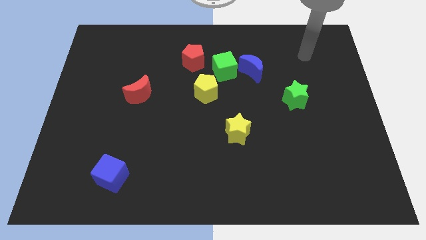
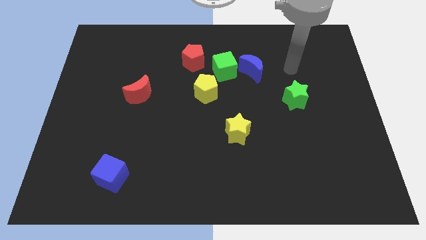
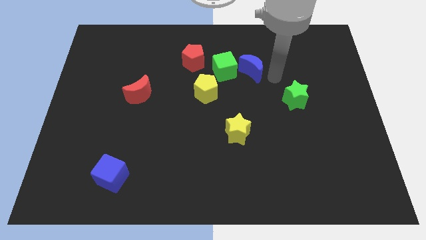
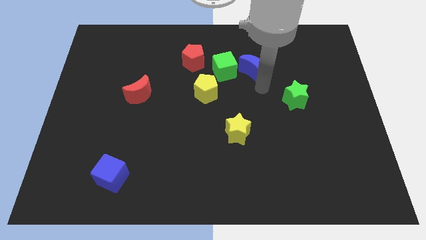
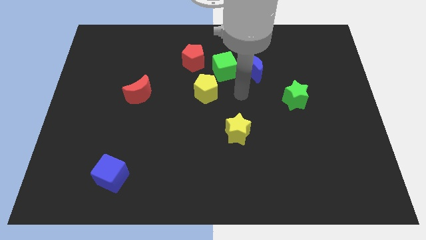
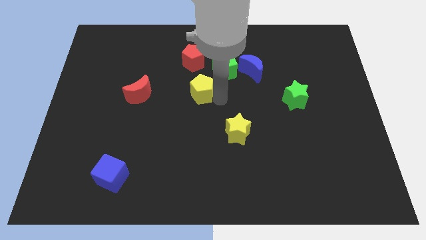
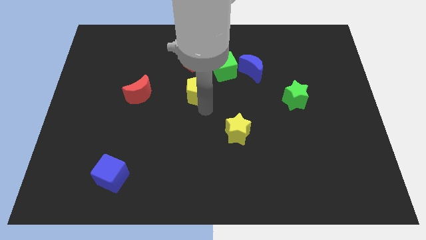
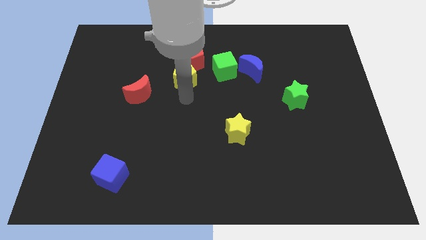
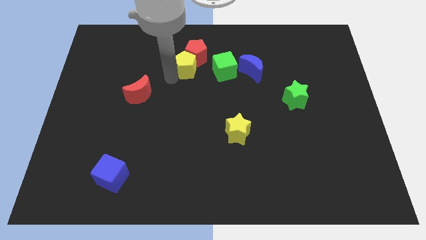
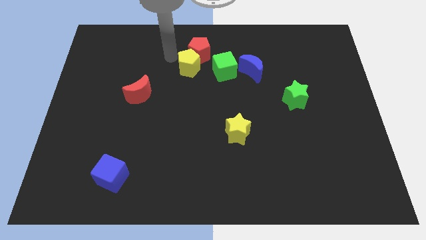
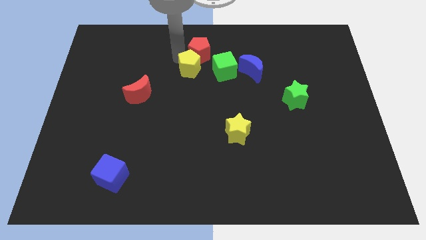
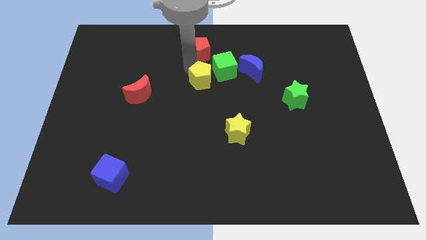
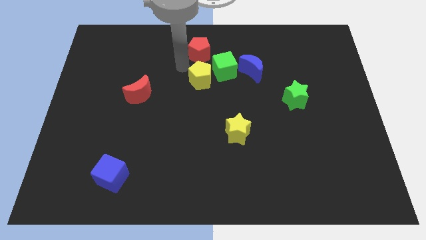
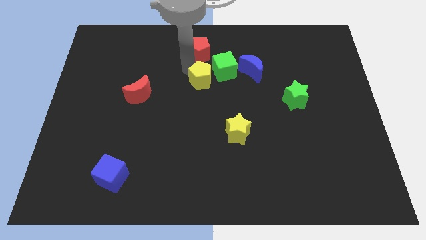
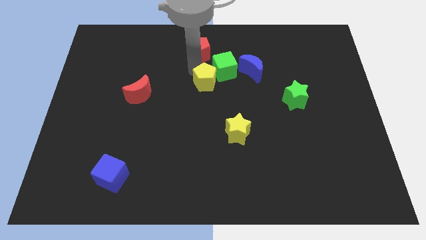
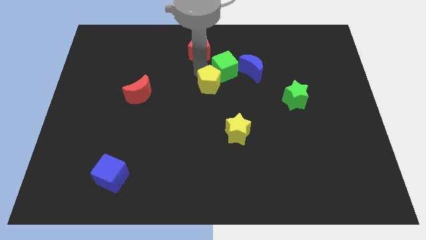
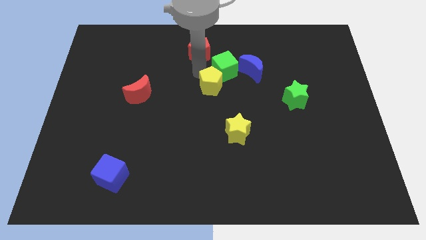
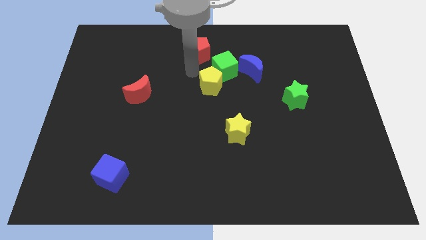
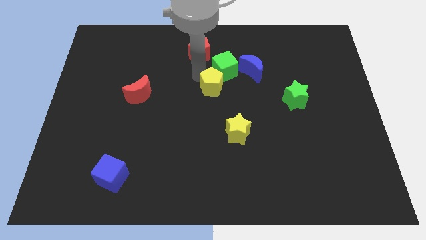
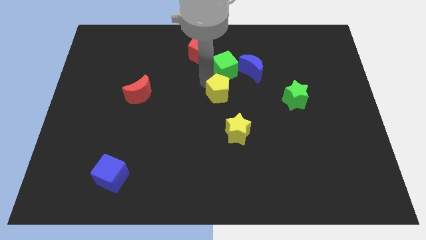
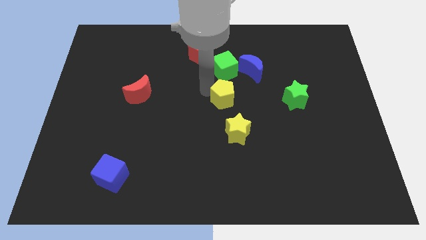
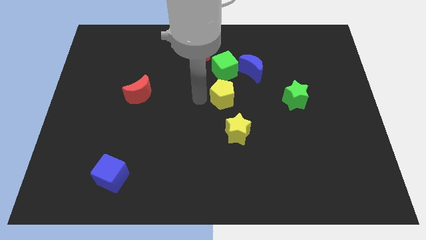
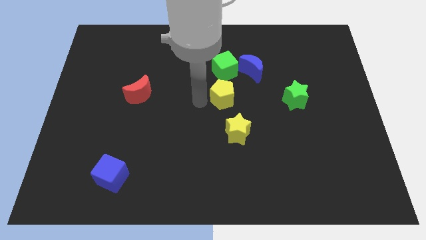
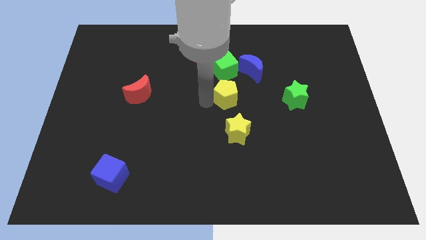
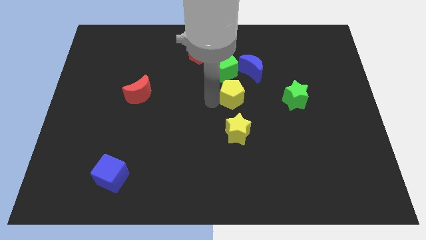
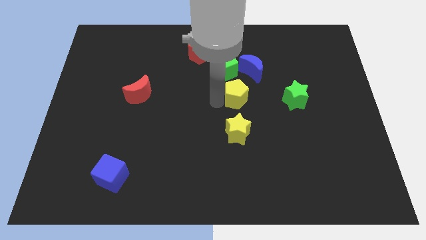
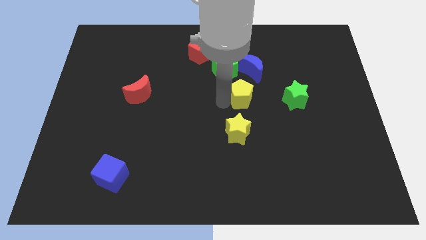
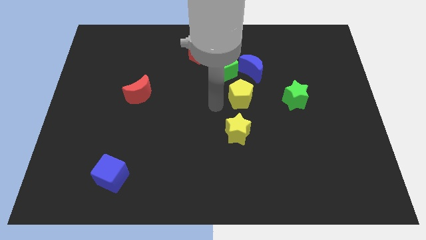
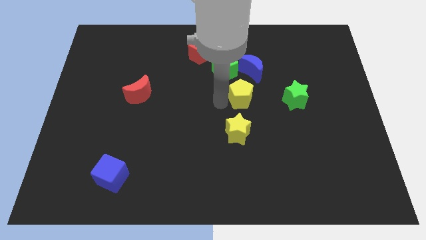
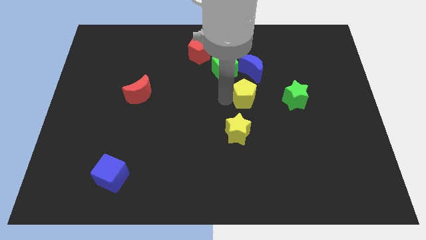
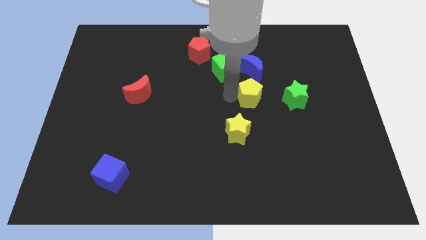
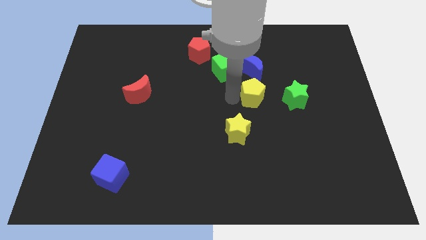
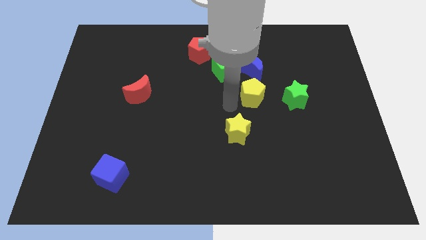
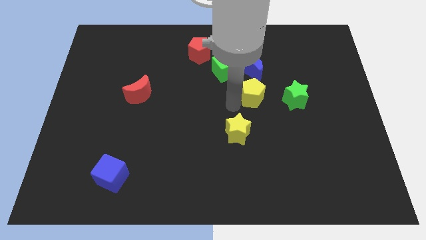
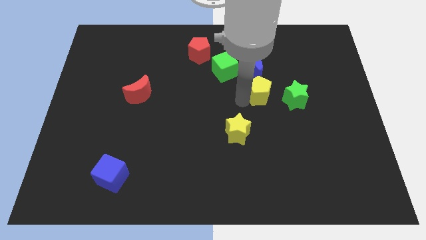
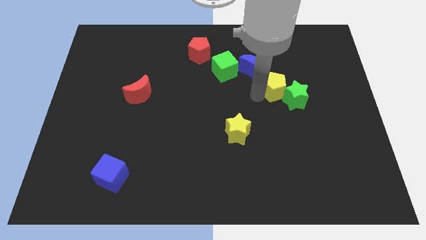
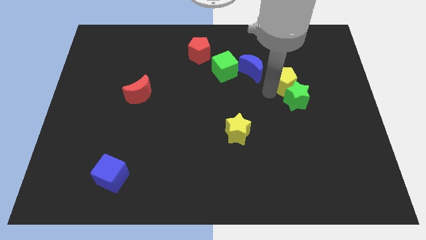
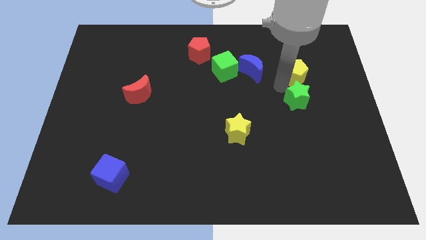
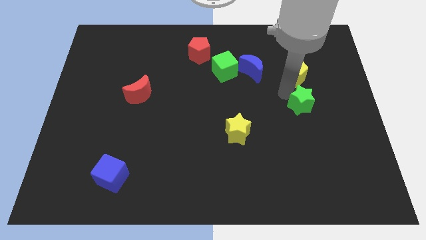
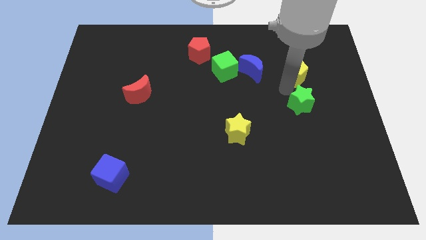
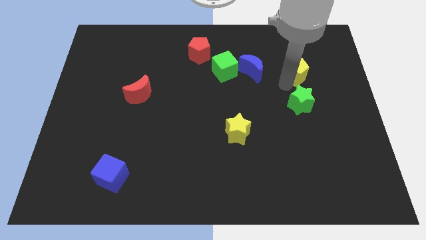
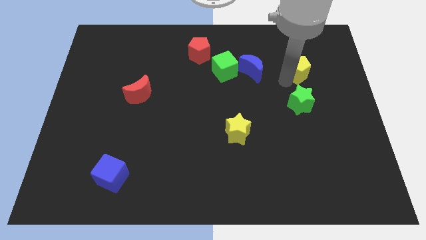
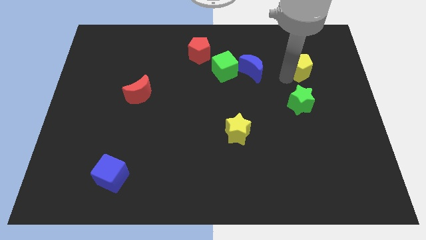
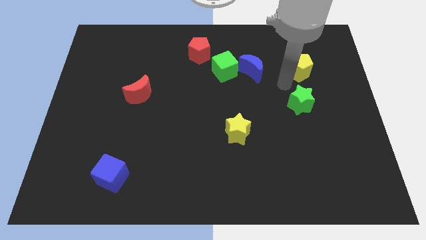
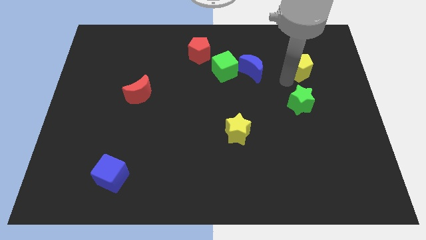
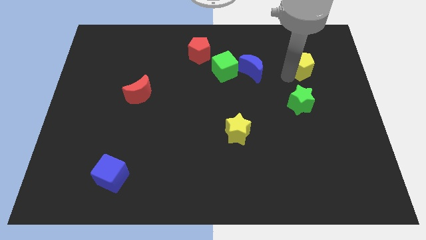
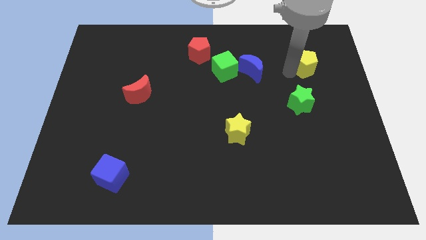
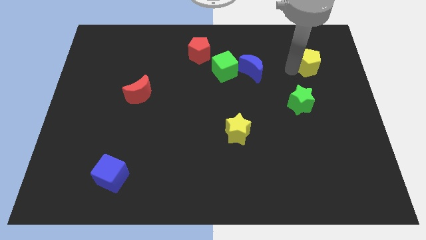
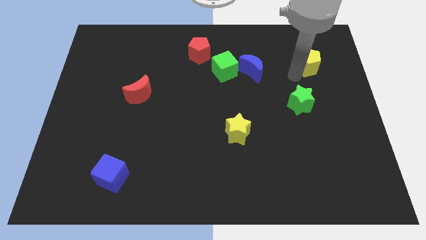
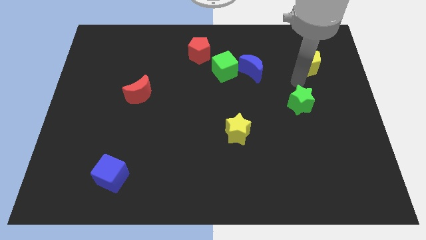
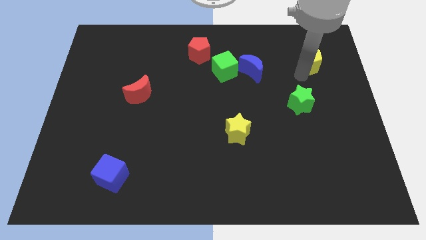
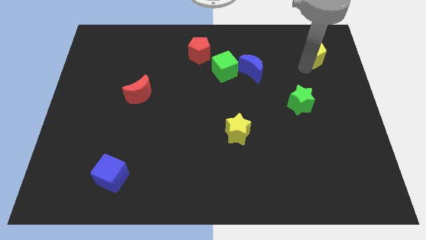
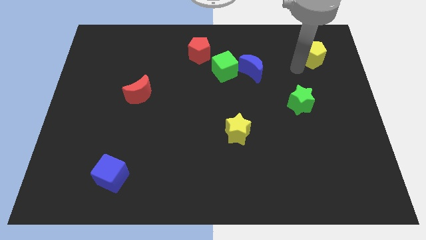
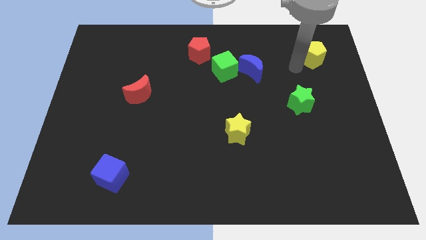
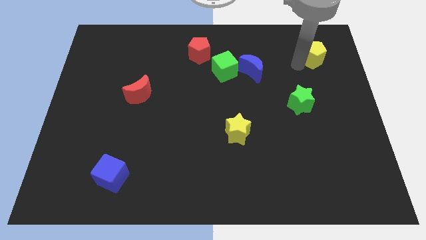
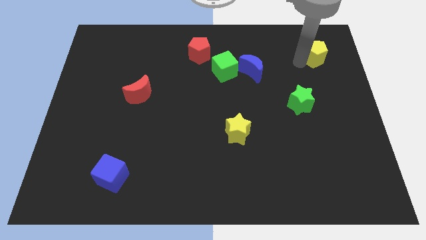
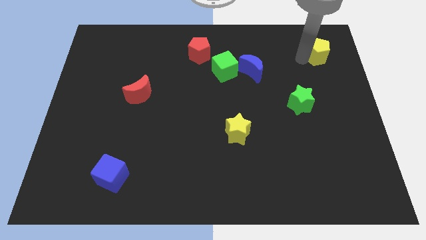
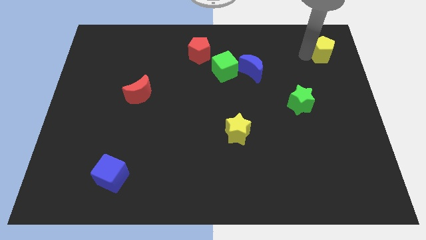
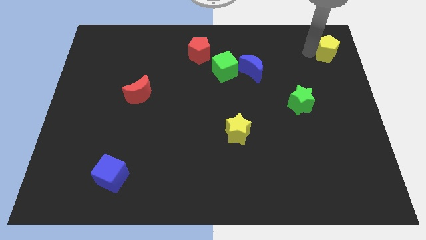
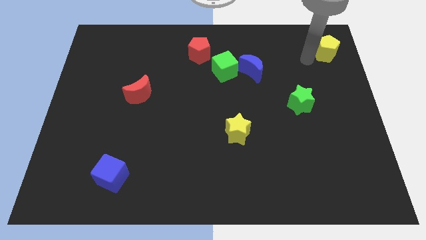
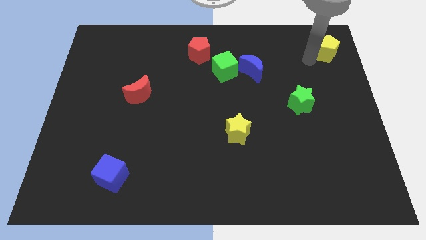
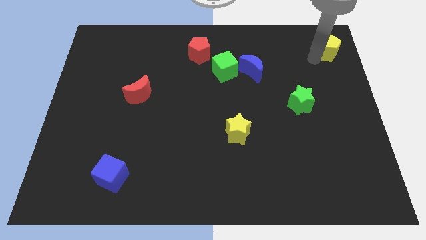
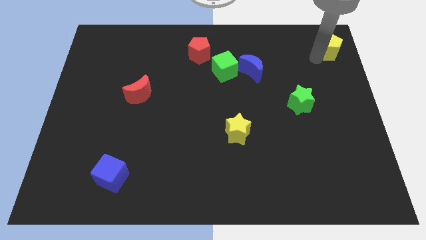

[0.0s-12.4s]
move the yellow pentagon to the upper right corner

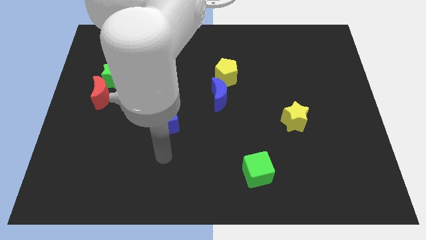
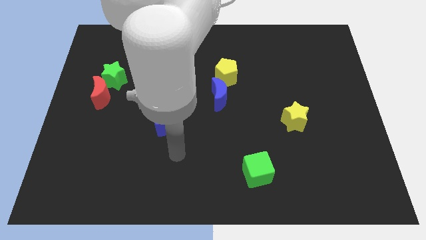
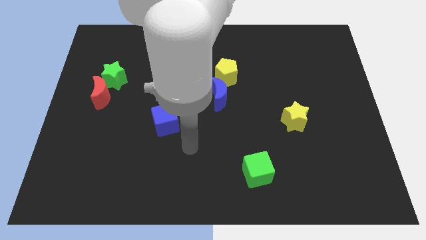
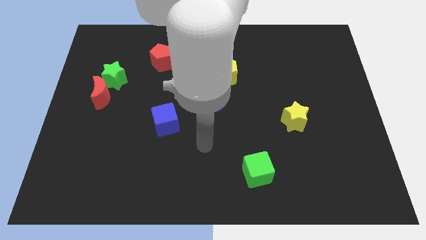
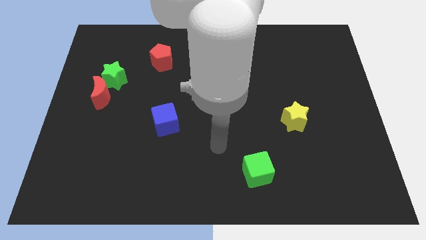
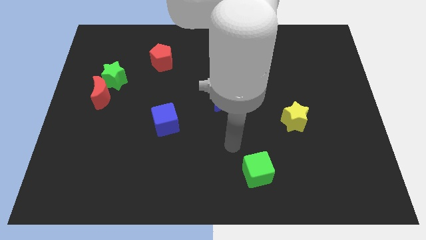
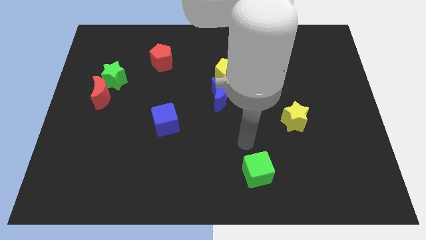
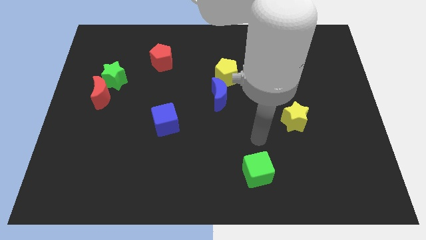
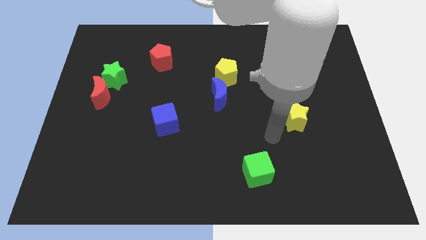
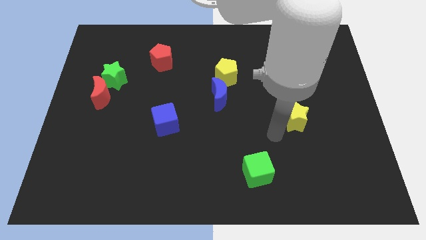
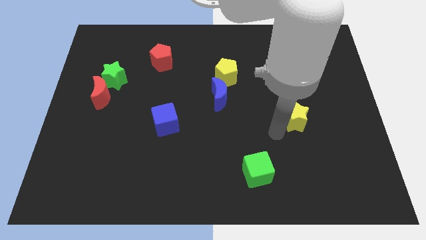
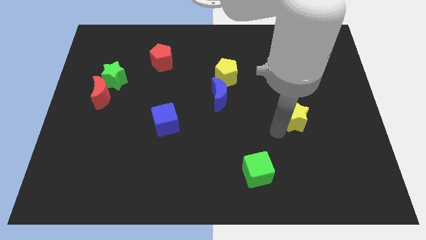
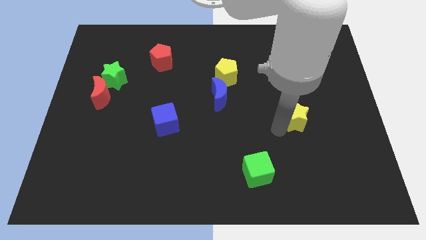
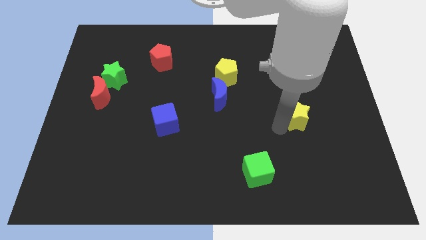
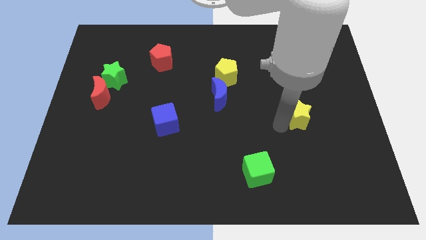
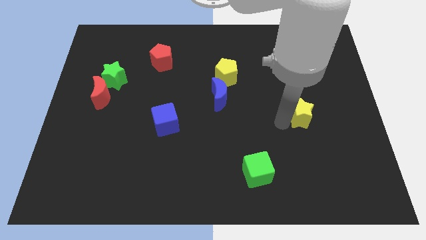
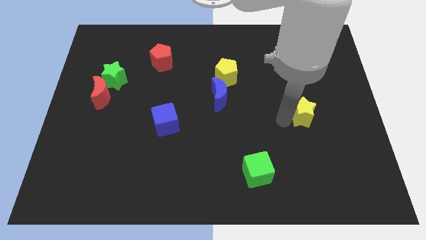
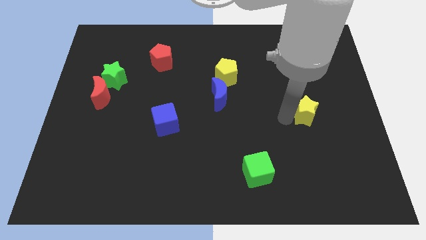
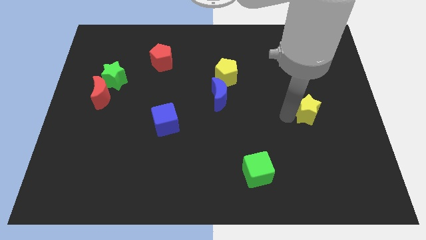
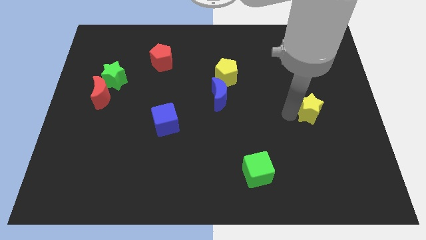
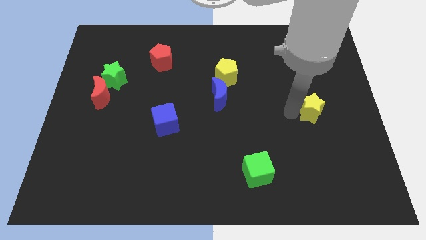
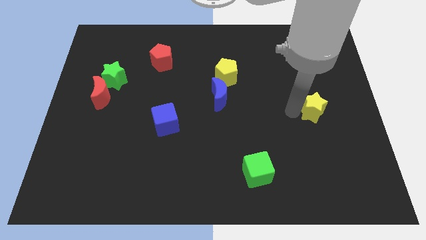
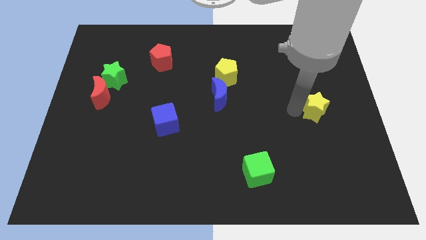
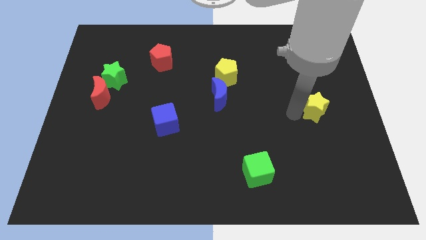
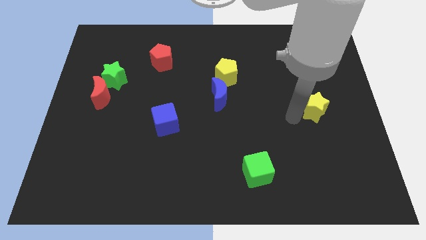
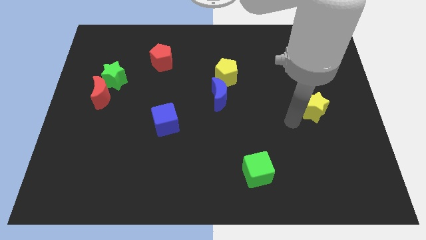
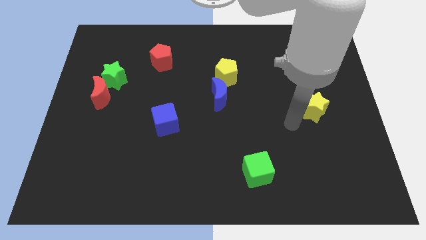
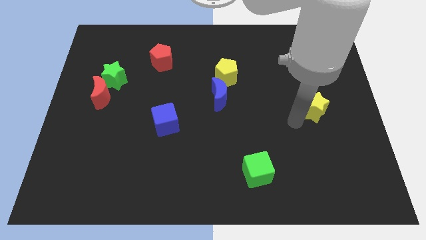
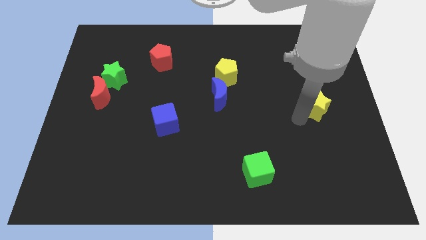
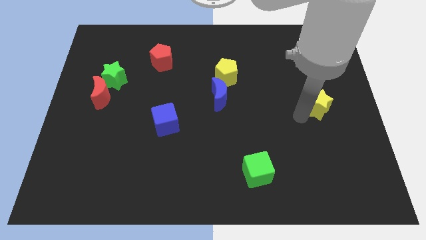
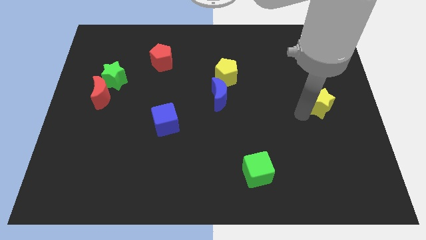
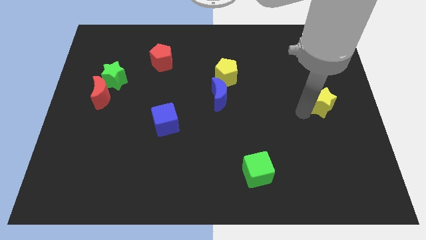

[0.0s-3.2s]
slide the yellow star to the right side
